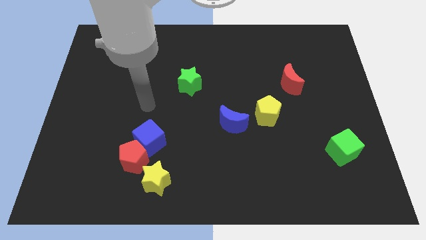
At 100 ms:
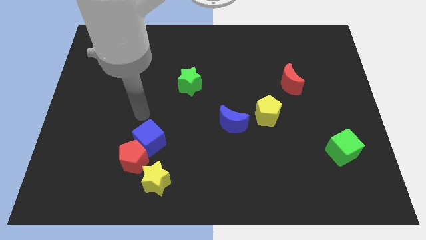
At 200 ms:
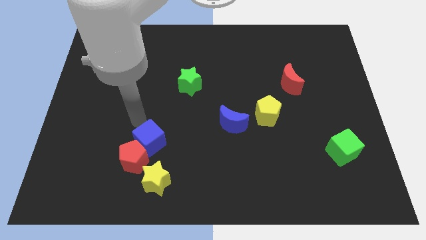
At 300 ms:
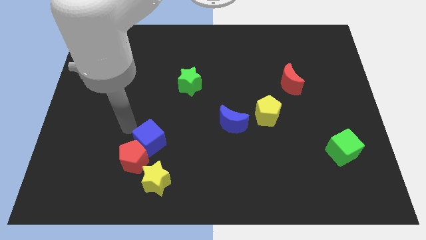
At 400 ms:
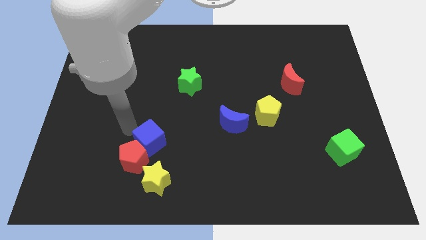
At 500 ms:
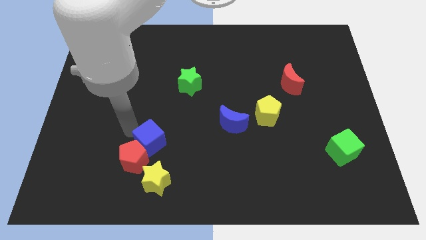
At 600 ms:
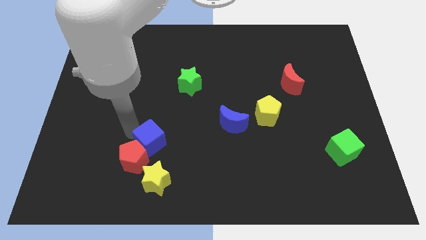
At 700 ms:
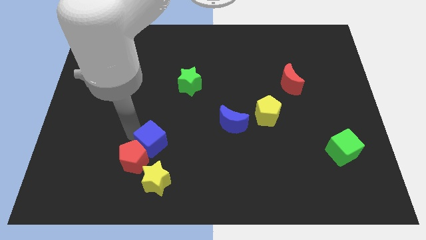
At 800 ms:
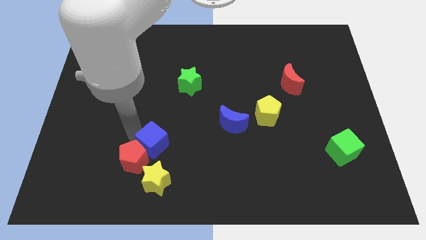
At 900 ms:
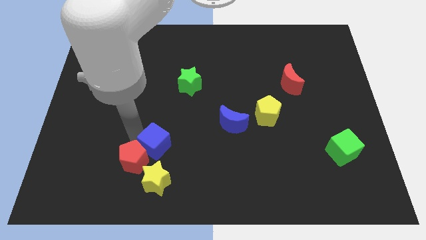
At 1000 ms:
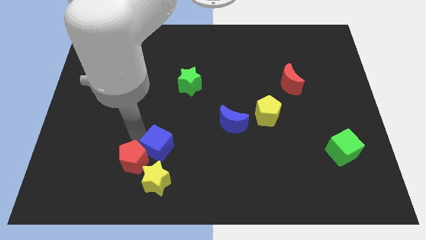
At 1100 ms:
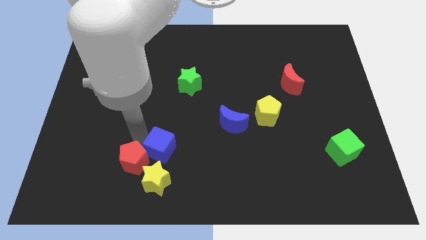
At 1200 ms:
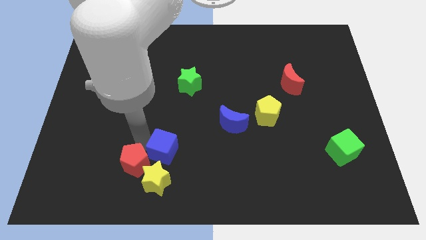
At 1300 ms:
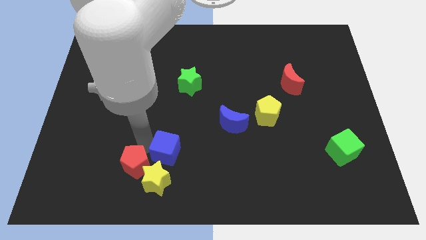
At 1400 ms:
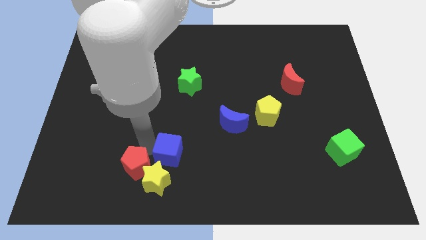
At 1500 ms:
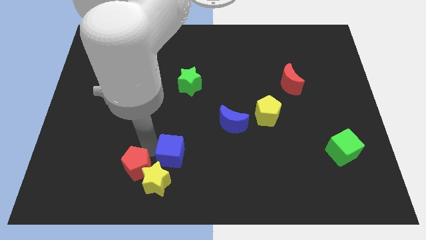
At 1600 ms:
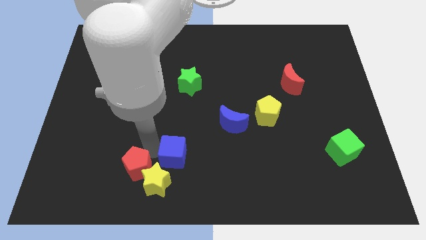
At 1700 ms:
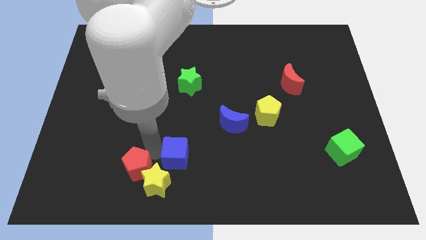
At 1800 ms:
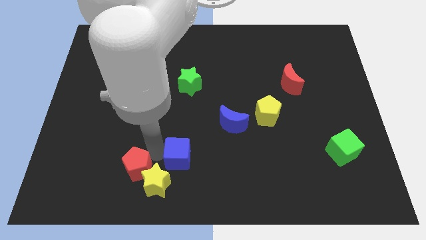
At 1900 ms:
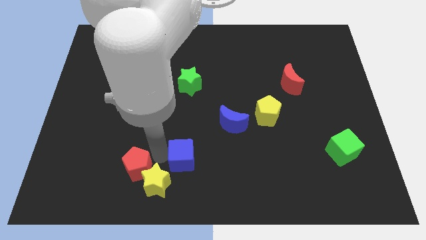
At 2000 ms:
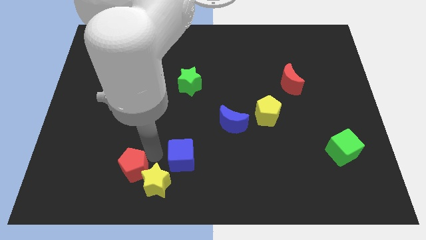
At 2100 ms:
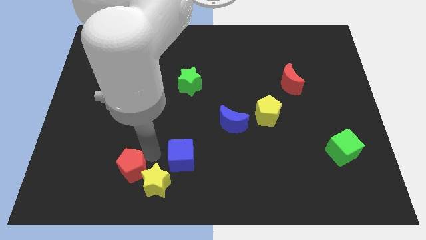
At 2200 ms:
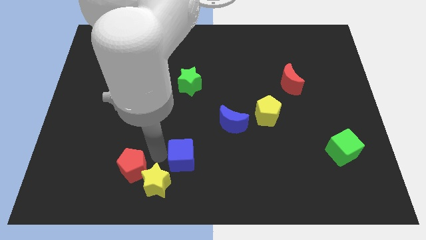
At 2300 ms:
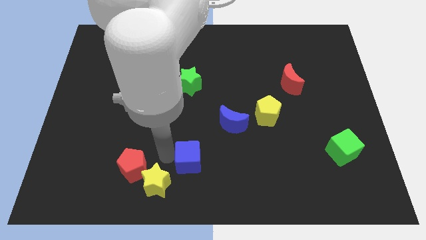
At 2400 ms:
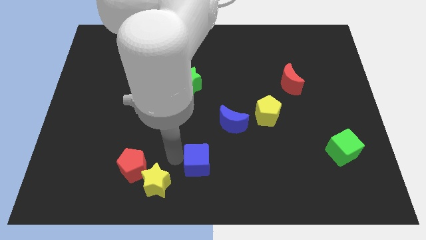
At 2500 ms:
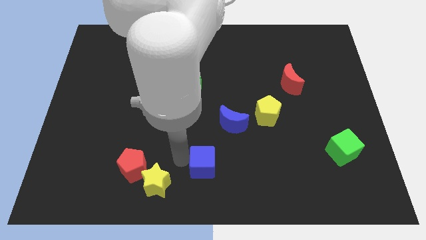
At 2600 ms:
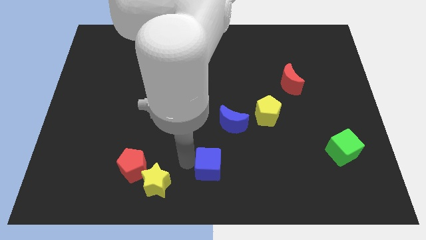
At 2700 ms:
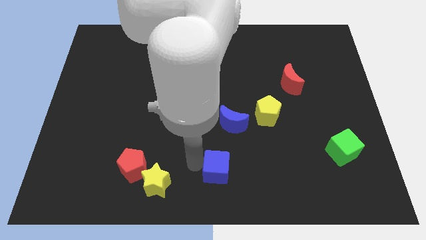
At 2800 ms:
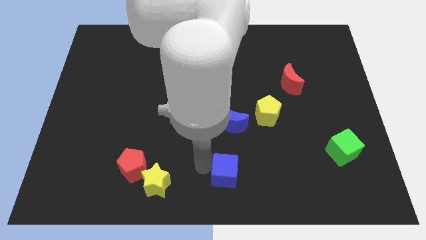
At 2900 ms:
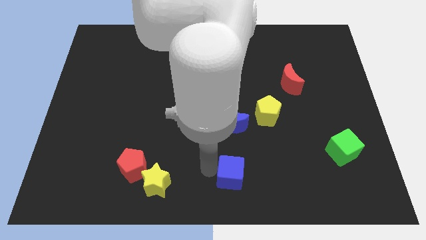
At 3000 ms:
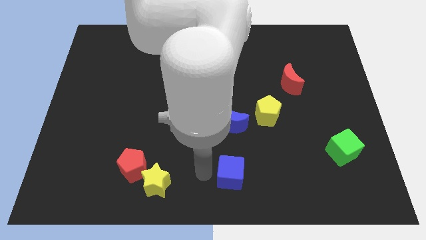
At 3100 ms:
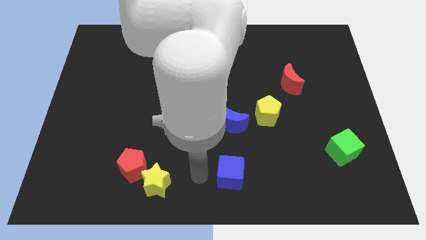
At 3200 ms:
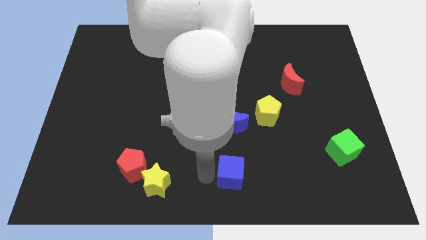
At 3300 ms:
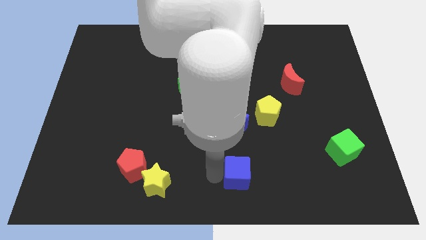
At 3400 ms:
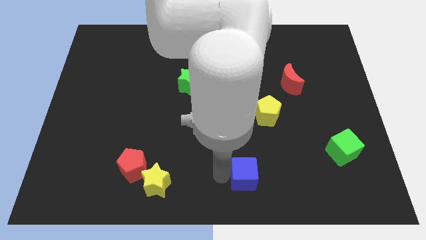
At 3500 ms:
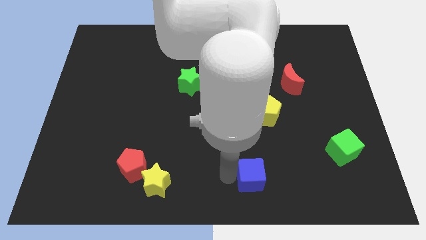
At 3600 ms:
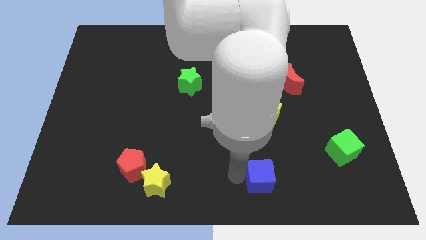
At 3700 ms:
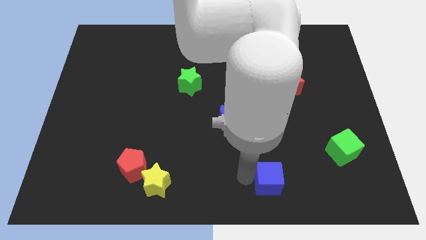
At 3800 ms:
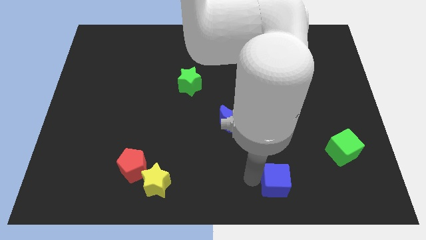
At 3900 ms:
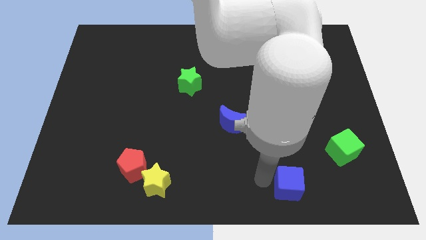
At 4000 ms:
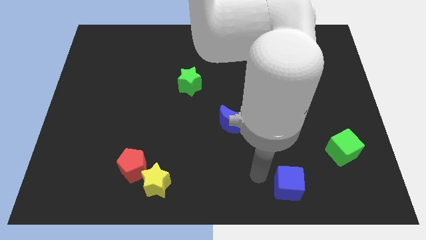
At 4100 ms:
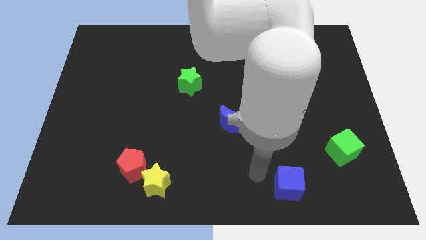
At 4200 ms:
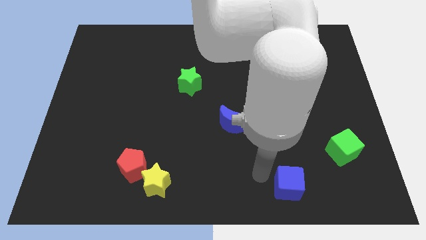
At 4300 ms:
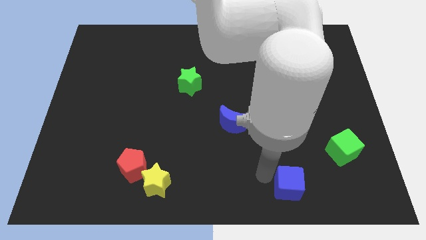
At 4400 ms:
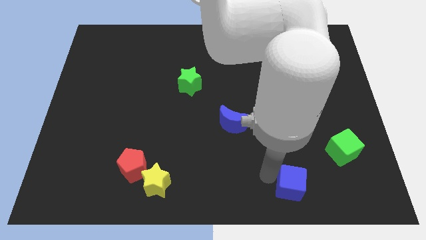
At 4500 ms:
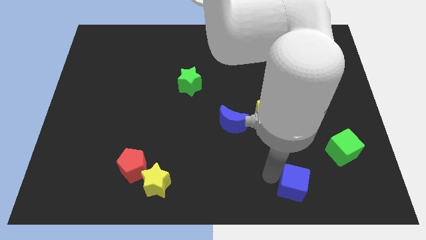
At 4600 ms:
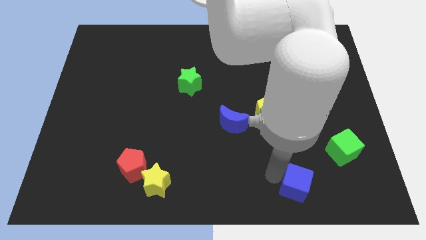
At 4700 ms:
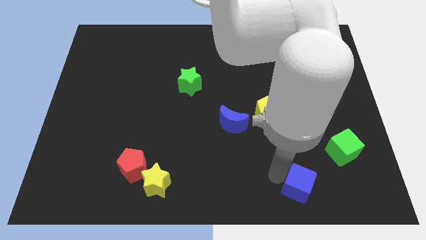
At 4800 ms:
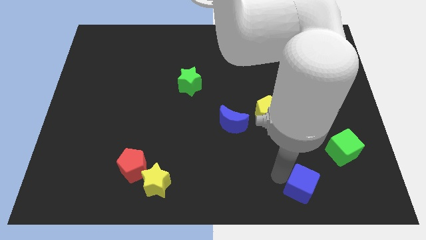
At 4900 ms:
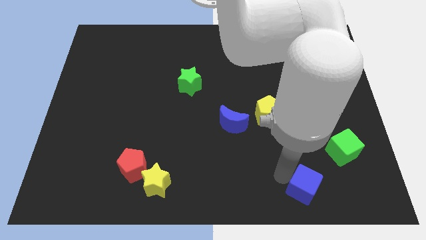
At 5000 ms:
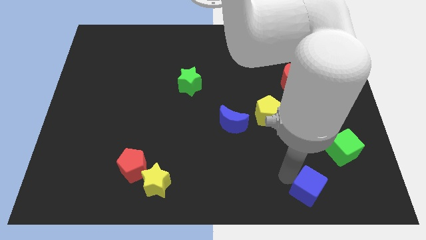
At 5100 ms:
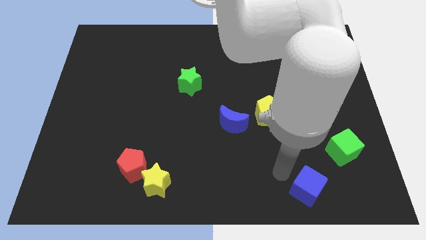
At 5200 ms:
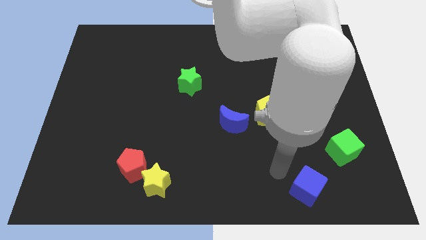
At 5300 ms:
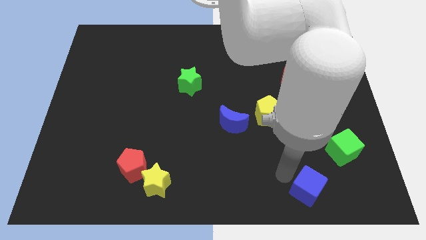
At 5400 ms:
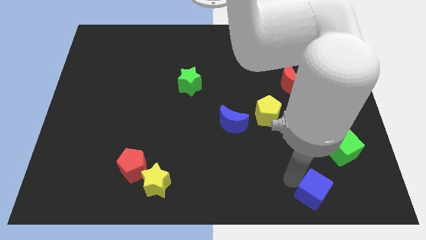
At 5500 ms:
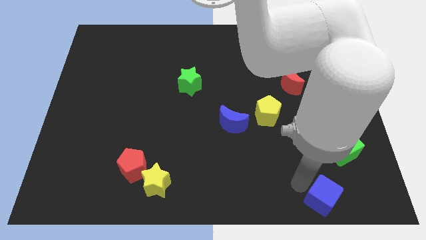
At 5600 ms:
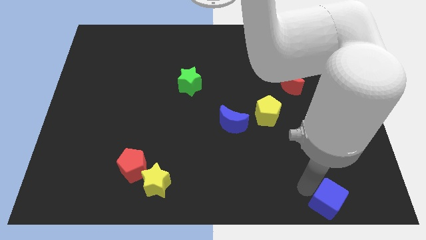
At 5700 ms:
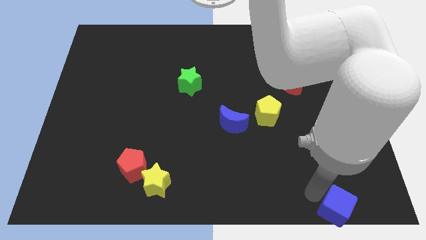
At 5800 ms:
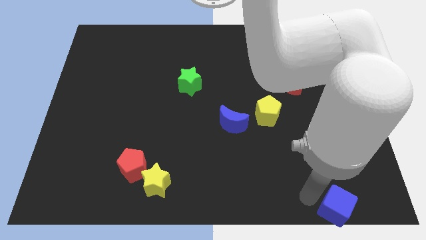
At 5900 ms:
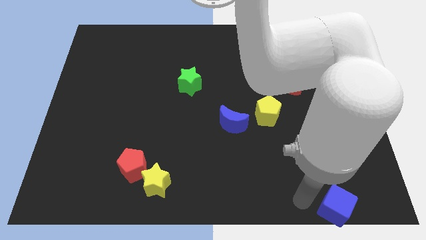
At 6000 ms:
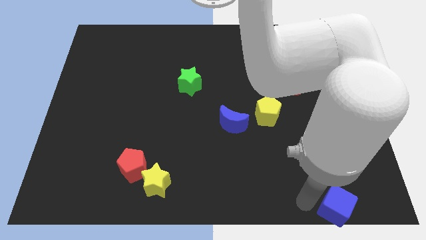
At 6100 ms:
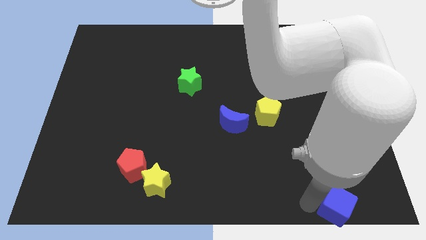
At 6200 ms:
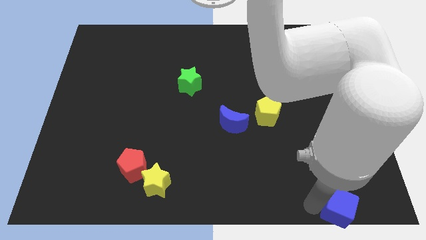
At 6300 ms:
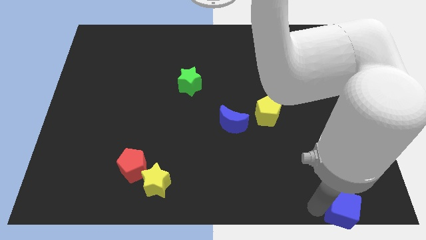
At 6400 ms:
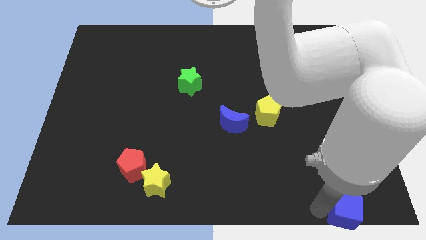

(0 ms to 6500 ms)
slide the blue cube to the lower right corner
